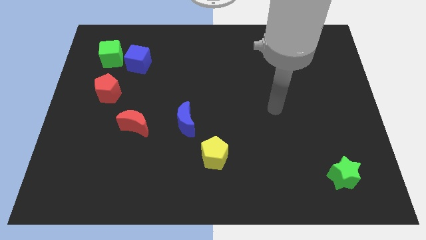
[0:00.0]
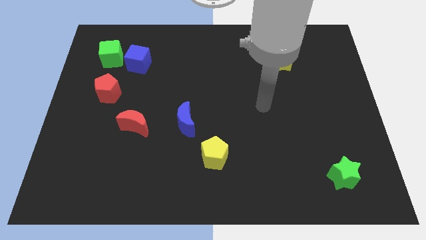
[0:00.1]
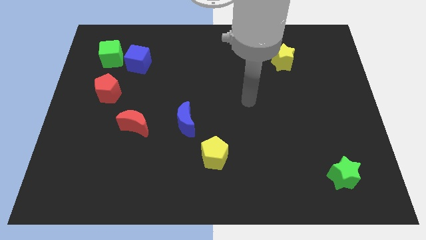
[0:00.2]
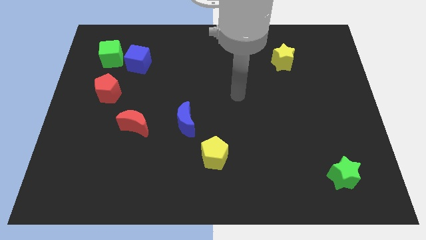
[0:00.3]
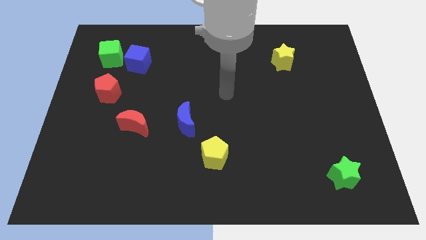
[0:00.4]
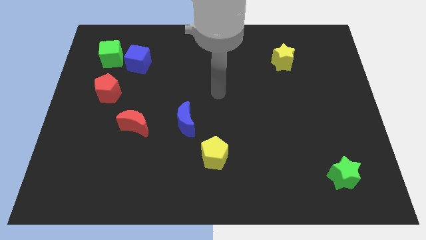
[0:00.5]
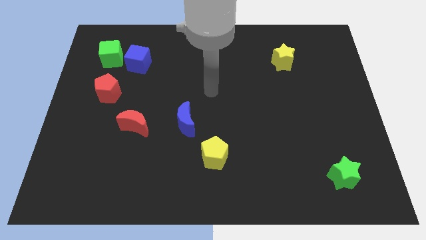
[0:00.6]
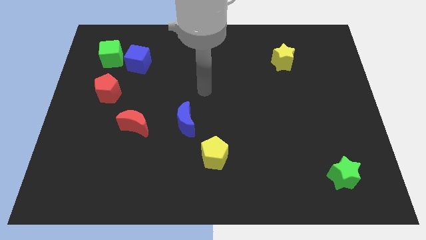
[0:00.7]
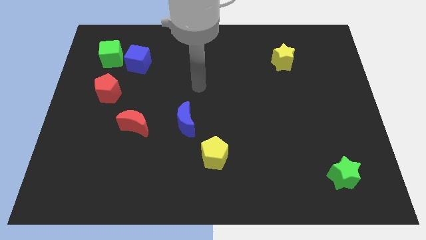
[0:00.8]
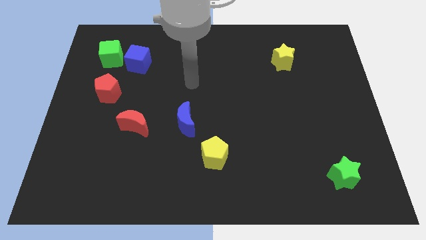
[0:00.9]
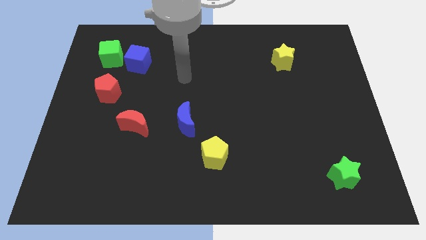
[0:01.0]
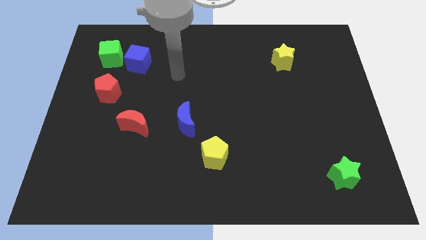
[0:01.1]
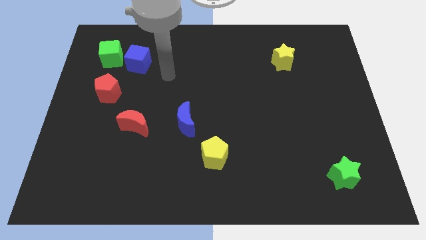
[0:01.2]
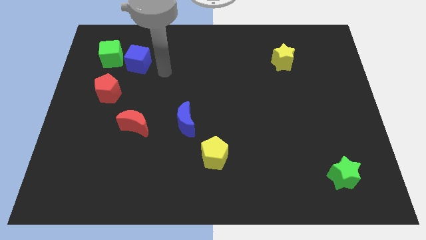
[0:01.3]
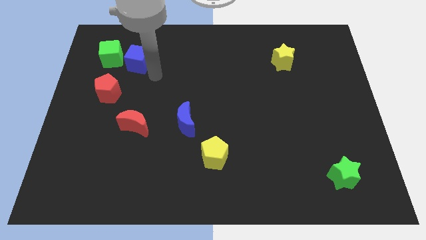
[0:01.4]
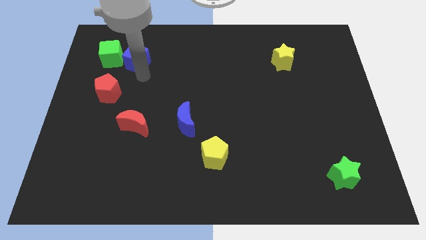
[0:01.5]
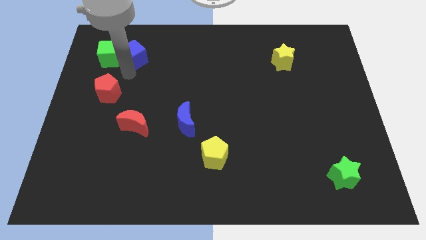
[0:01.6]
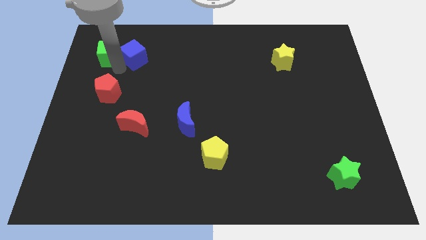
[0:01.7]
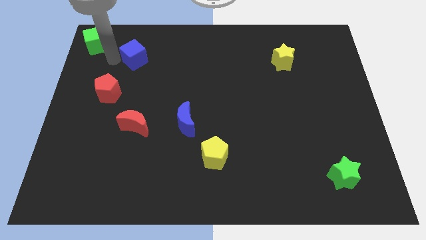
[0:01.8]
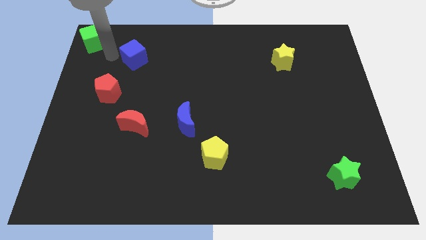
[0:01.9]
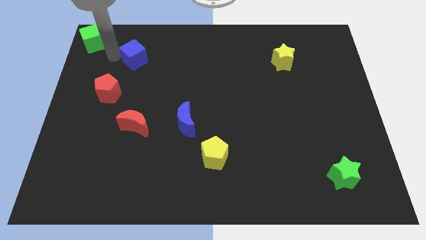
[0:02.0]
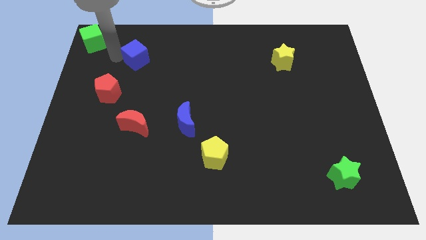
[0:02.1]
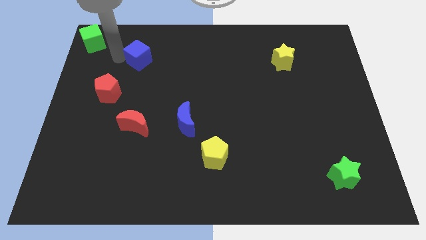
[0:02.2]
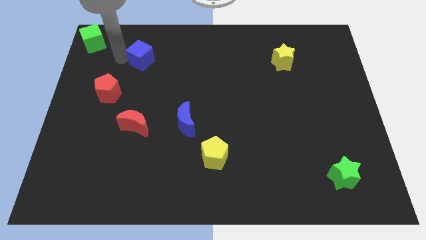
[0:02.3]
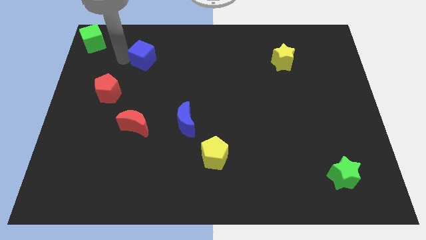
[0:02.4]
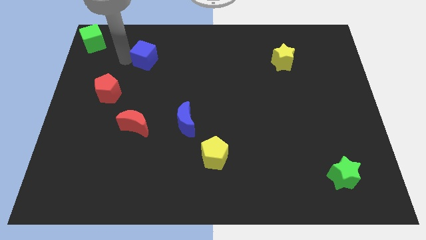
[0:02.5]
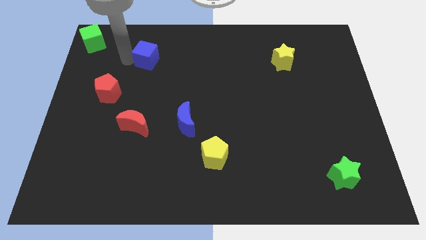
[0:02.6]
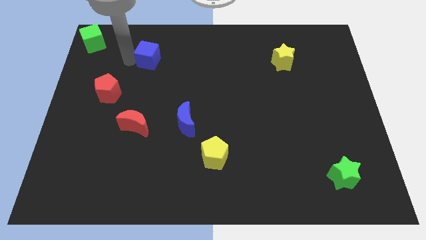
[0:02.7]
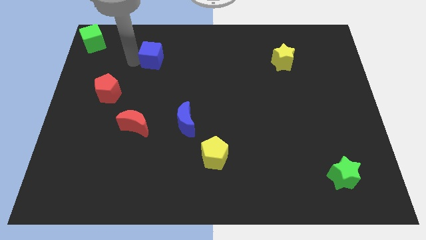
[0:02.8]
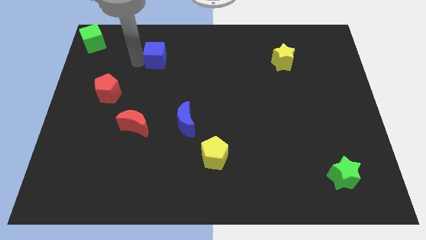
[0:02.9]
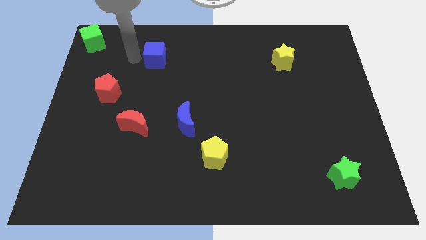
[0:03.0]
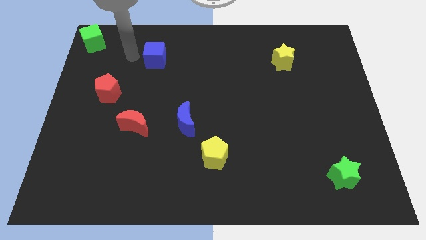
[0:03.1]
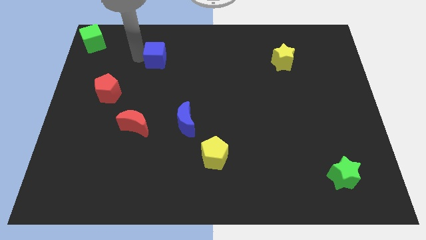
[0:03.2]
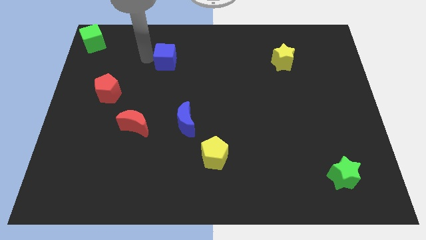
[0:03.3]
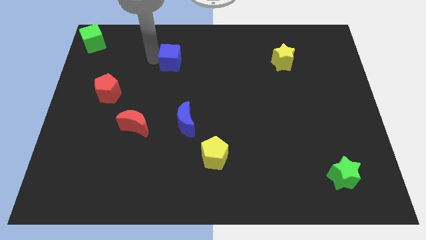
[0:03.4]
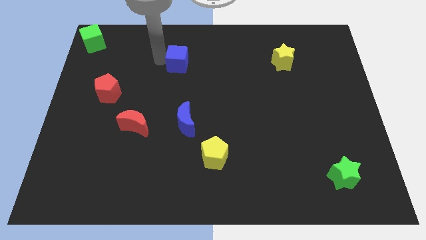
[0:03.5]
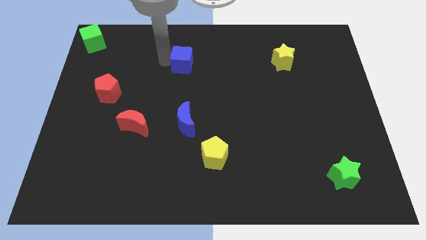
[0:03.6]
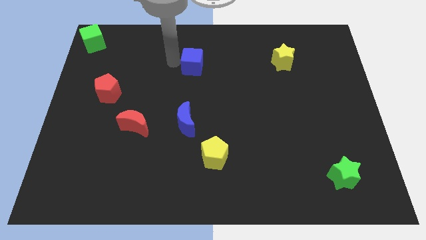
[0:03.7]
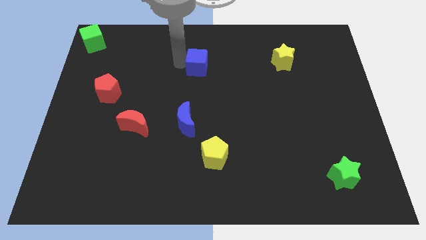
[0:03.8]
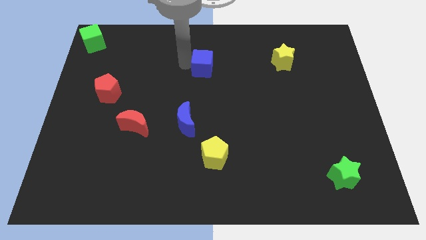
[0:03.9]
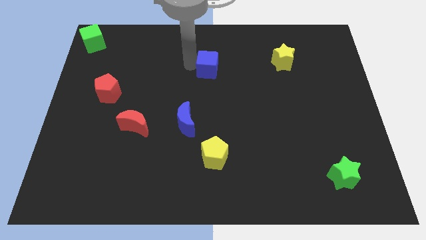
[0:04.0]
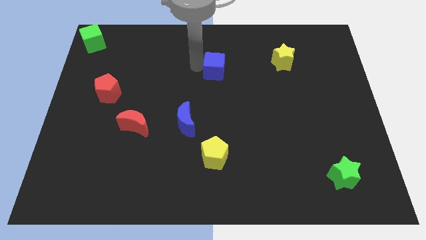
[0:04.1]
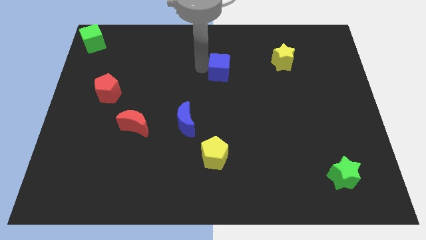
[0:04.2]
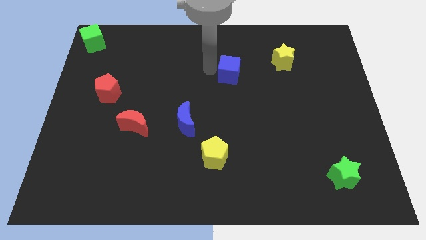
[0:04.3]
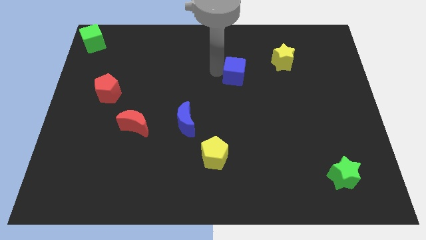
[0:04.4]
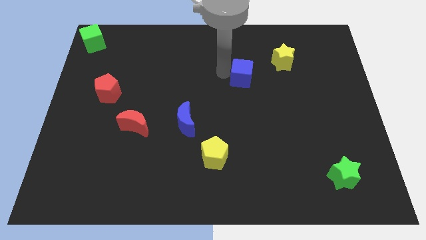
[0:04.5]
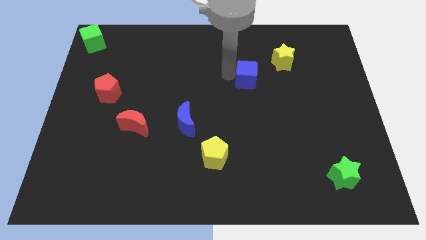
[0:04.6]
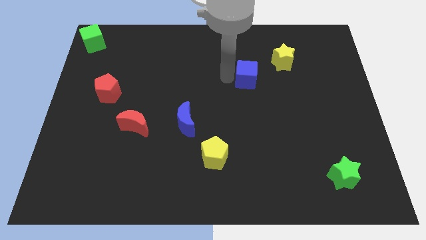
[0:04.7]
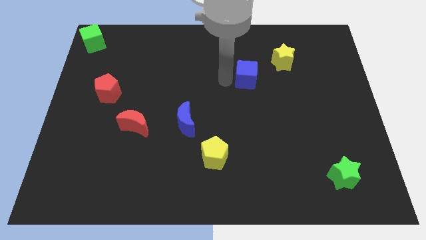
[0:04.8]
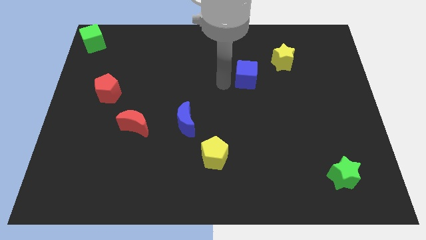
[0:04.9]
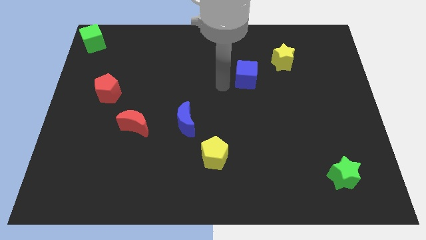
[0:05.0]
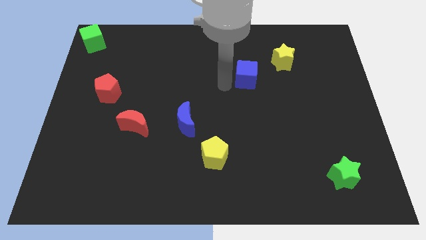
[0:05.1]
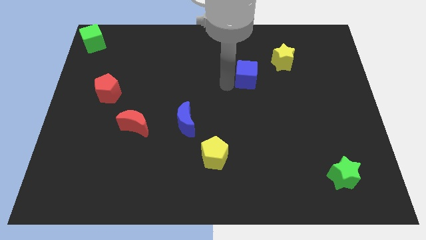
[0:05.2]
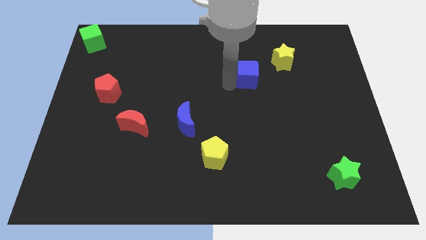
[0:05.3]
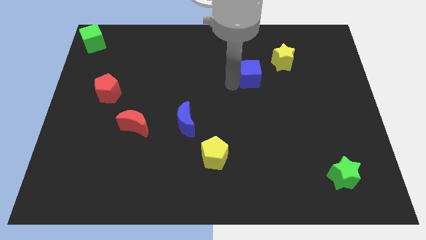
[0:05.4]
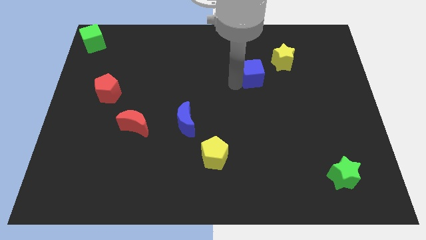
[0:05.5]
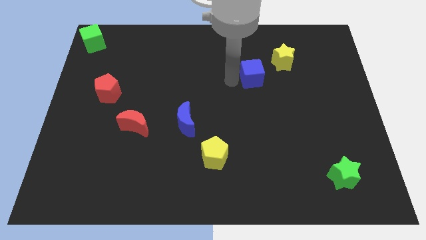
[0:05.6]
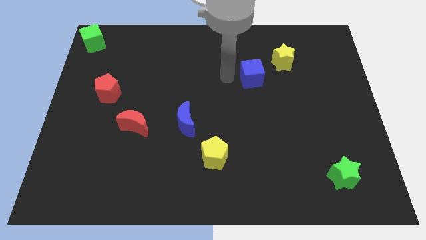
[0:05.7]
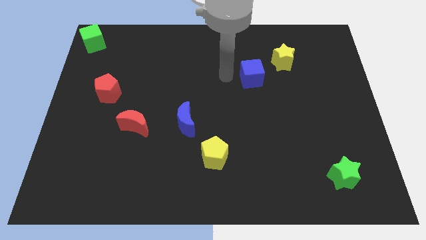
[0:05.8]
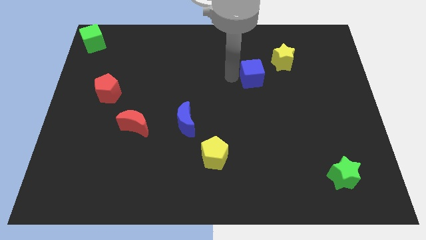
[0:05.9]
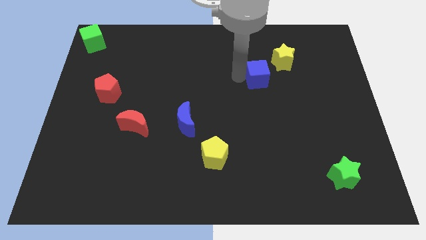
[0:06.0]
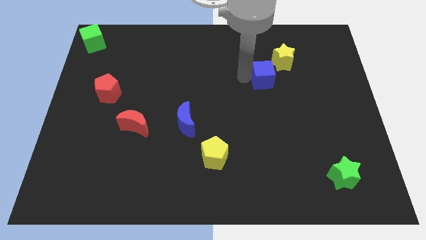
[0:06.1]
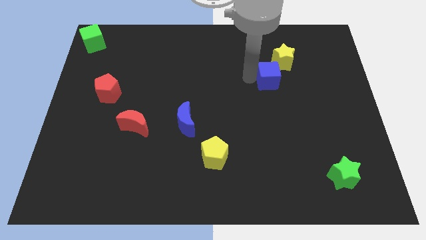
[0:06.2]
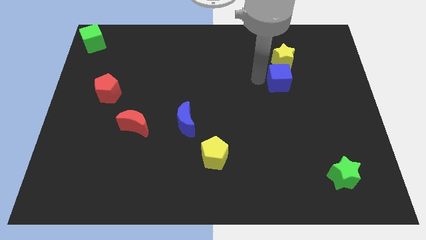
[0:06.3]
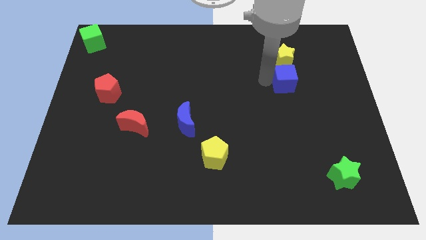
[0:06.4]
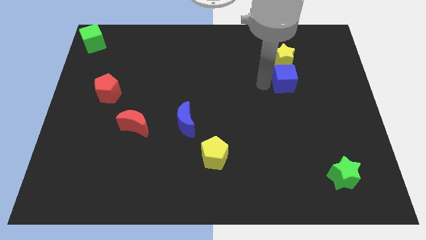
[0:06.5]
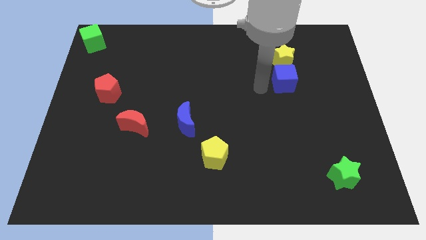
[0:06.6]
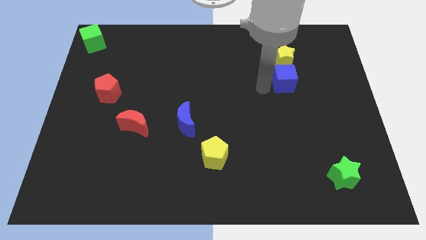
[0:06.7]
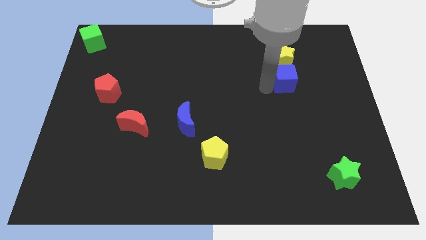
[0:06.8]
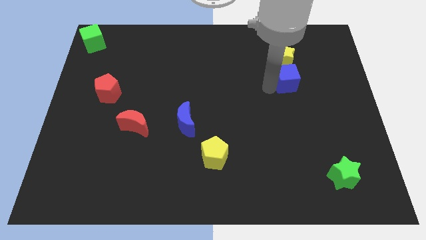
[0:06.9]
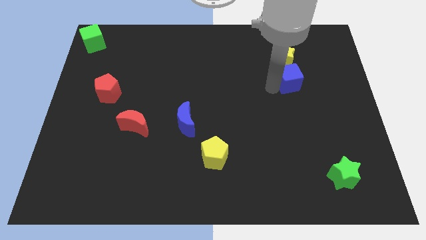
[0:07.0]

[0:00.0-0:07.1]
push the blue cube to the bottom right of the yellow star
